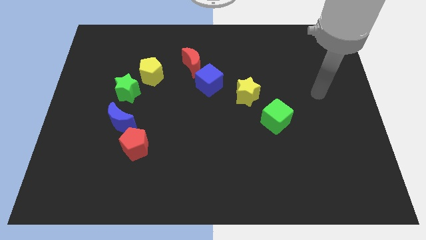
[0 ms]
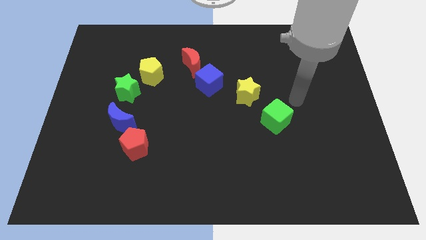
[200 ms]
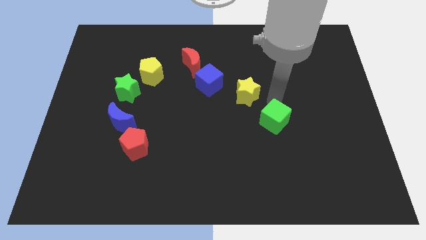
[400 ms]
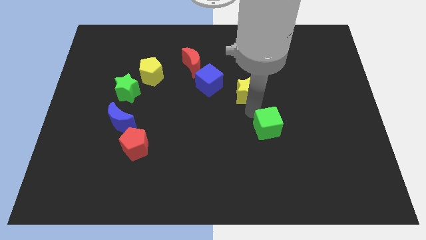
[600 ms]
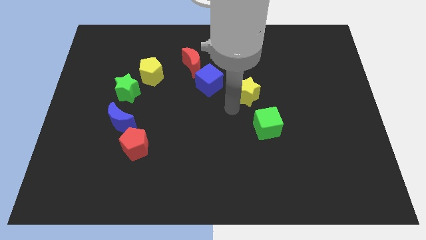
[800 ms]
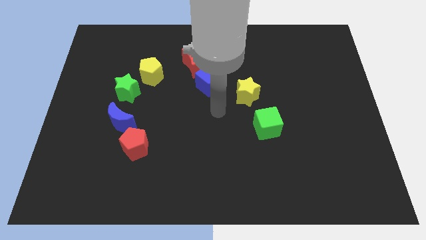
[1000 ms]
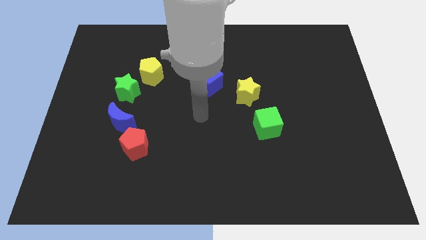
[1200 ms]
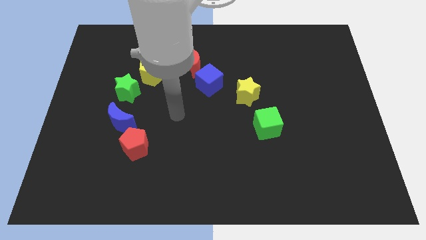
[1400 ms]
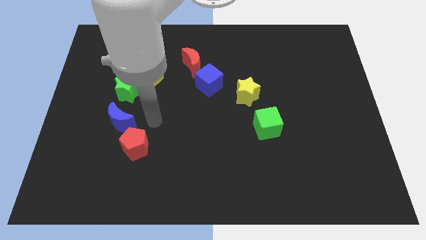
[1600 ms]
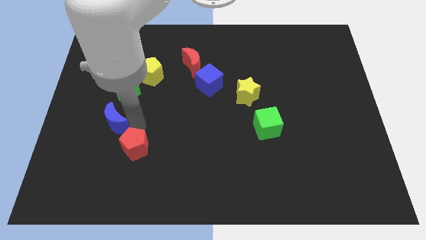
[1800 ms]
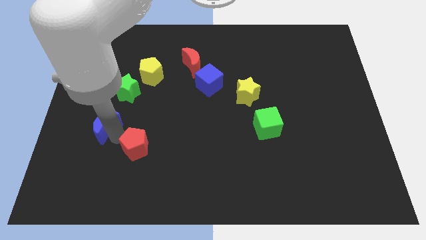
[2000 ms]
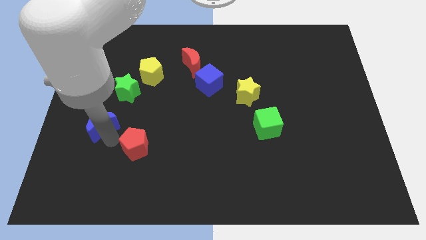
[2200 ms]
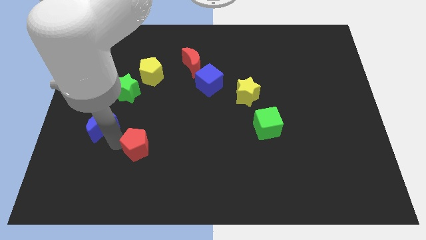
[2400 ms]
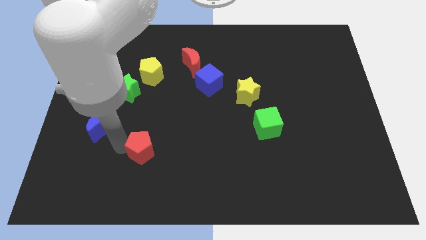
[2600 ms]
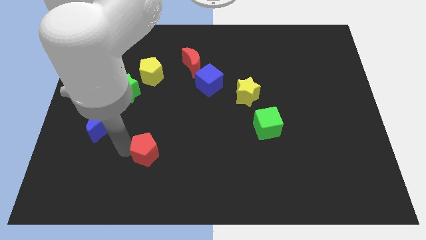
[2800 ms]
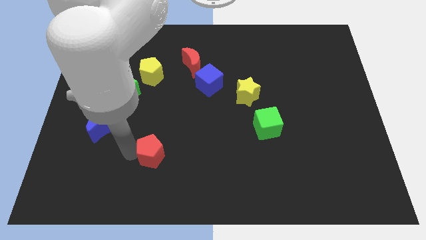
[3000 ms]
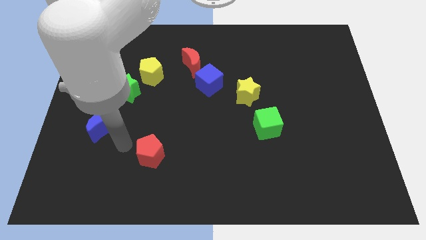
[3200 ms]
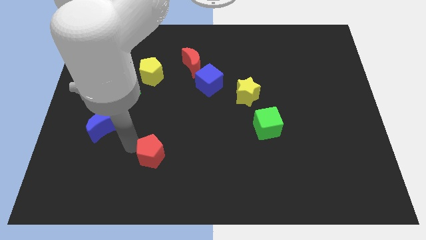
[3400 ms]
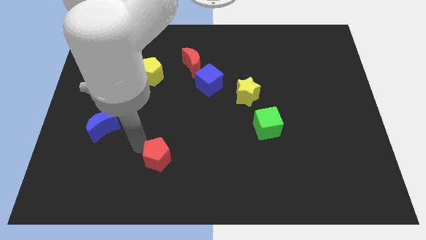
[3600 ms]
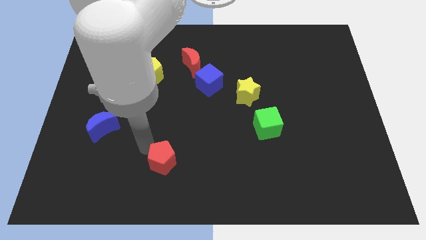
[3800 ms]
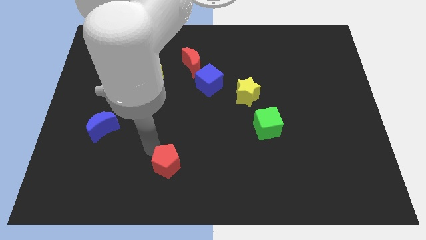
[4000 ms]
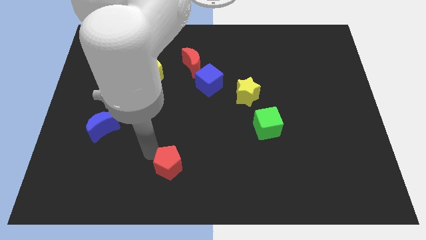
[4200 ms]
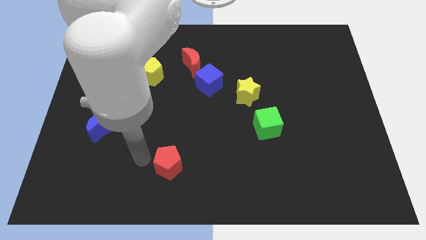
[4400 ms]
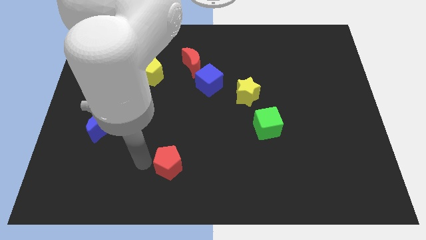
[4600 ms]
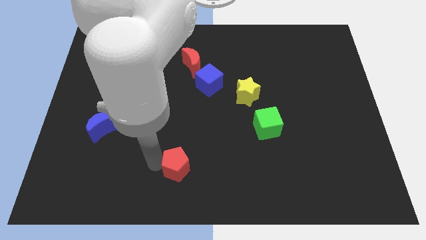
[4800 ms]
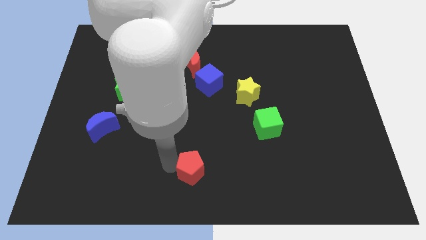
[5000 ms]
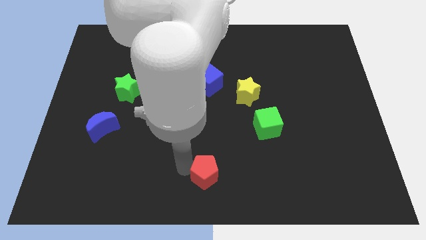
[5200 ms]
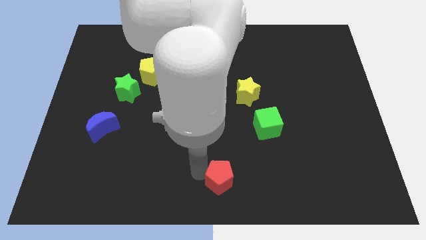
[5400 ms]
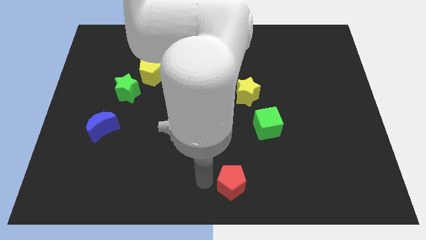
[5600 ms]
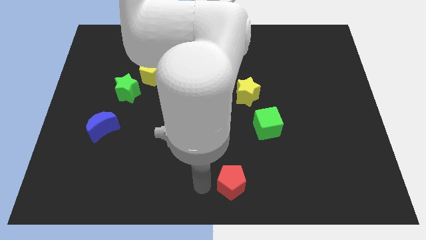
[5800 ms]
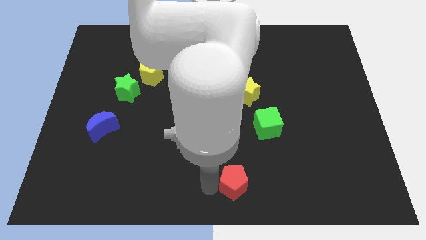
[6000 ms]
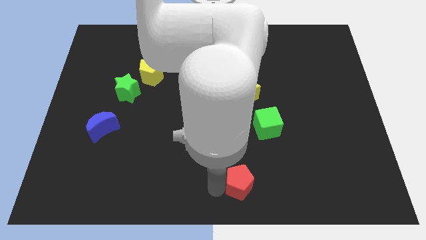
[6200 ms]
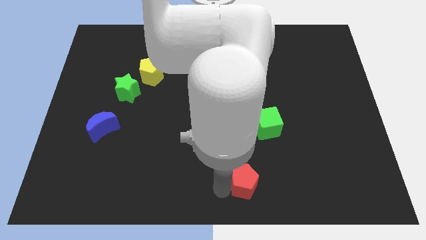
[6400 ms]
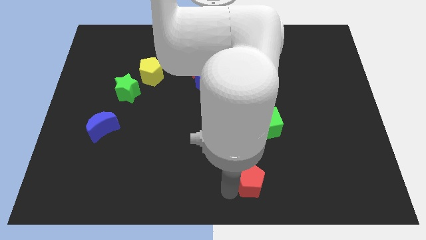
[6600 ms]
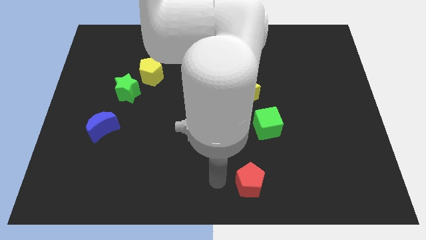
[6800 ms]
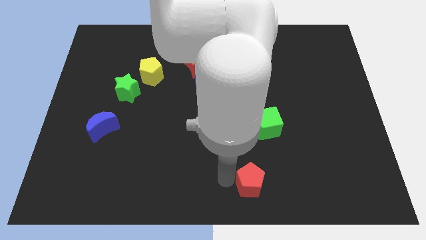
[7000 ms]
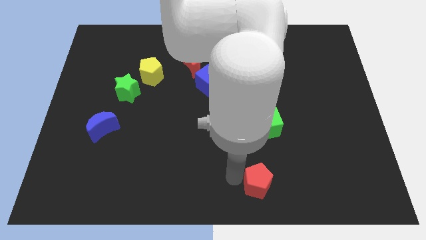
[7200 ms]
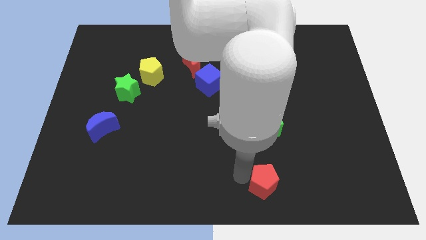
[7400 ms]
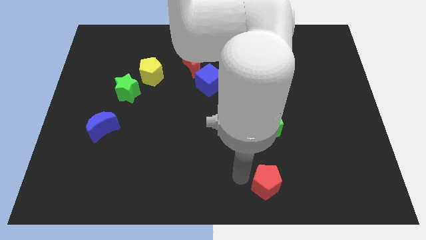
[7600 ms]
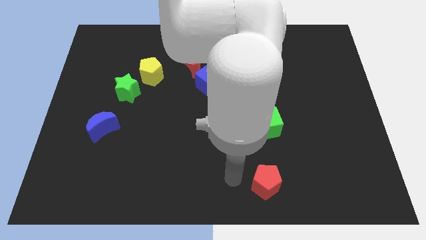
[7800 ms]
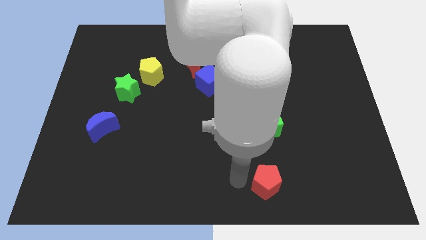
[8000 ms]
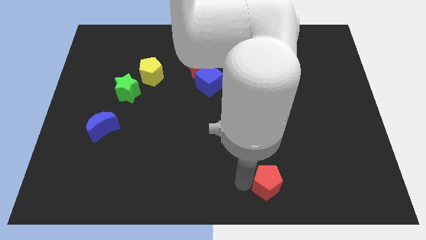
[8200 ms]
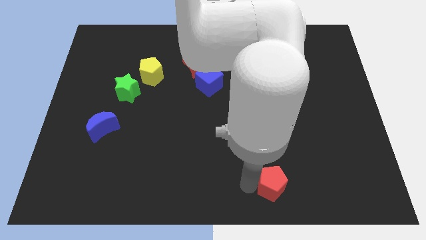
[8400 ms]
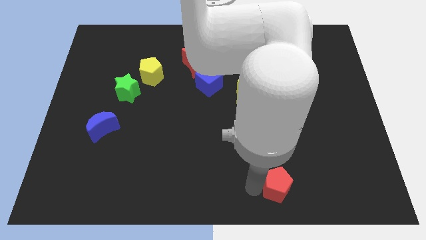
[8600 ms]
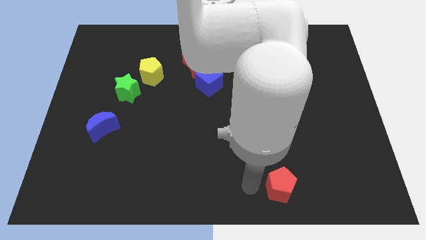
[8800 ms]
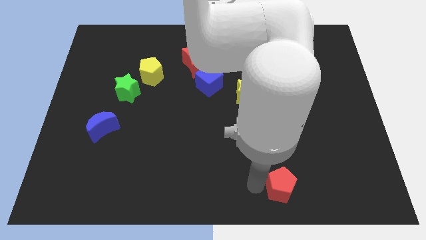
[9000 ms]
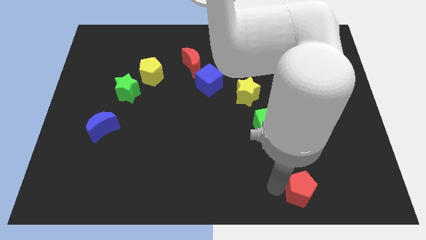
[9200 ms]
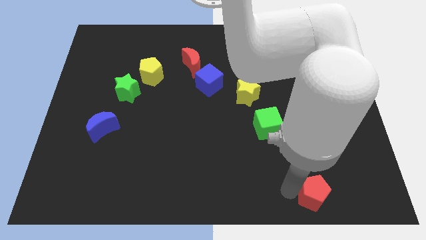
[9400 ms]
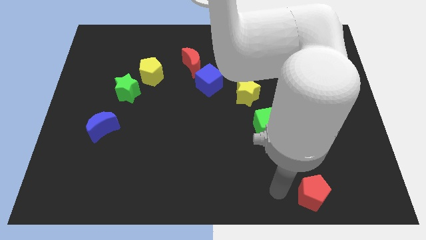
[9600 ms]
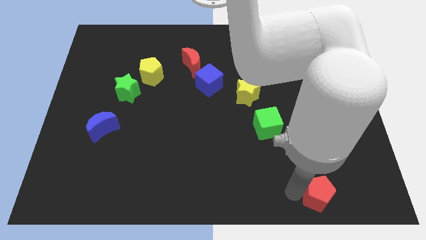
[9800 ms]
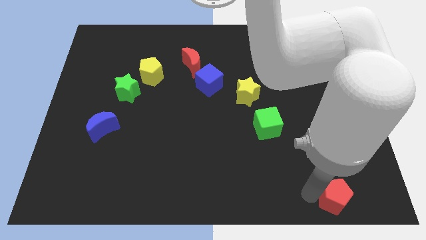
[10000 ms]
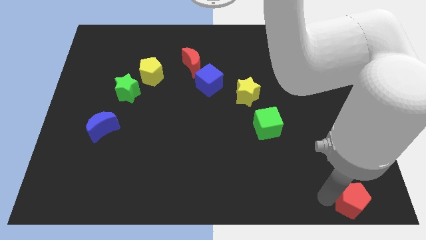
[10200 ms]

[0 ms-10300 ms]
push the red pentagon to the bottom right of the board

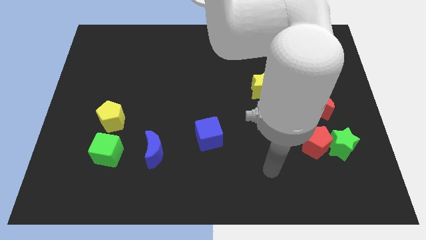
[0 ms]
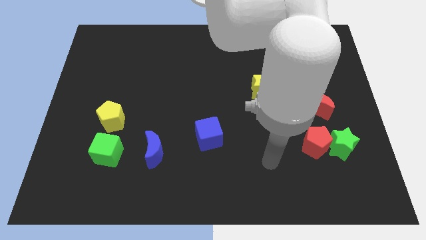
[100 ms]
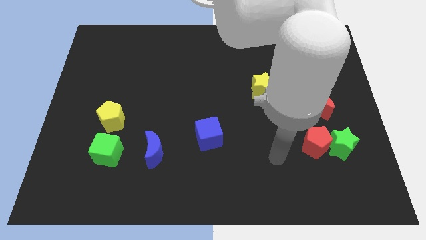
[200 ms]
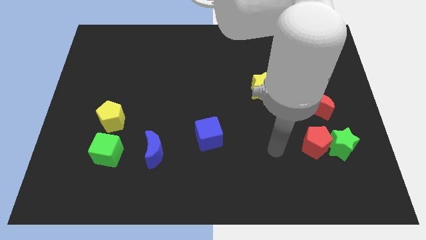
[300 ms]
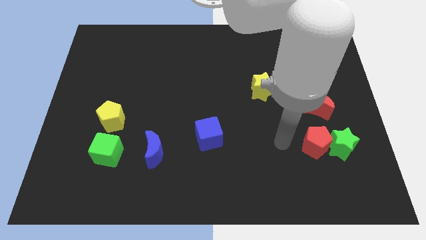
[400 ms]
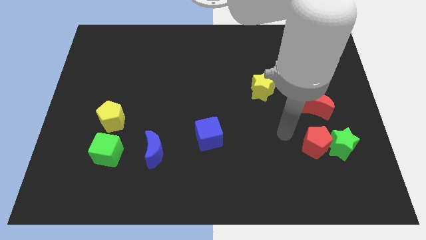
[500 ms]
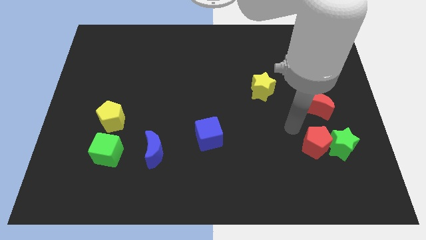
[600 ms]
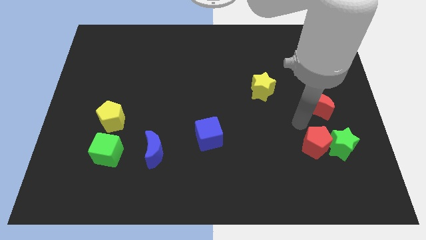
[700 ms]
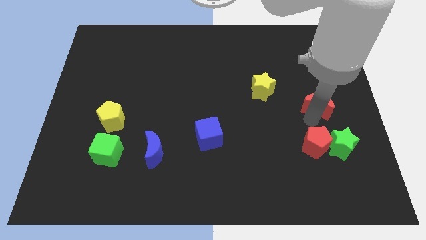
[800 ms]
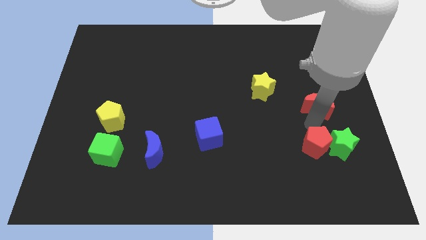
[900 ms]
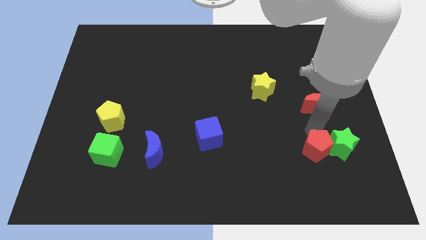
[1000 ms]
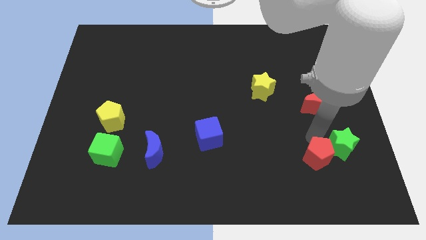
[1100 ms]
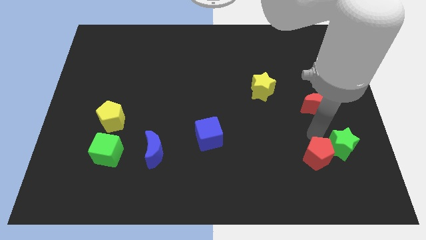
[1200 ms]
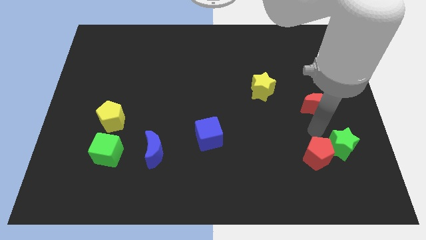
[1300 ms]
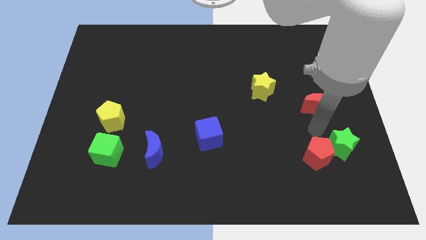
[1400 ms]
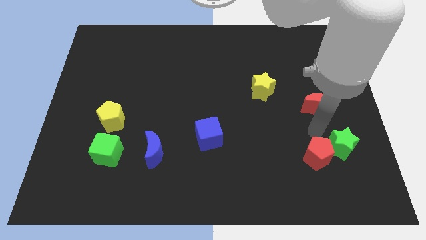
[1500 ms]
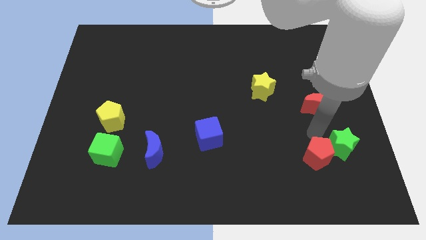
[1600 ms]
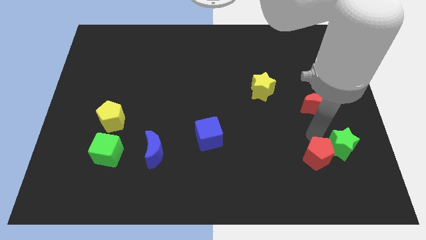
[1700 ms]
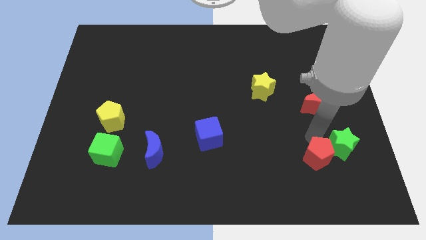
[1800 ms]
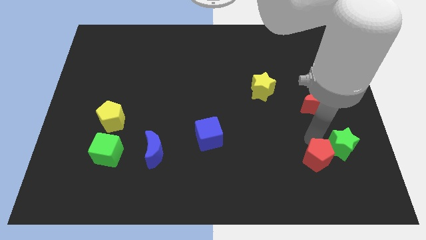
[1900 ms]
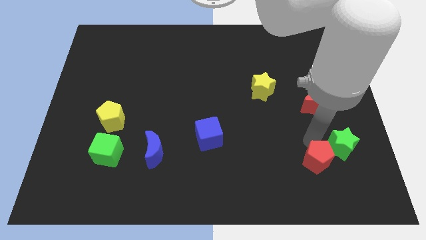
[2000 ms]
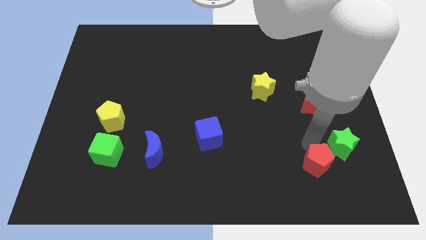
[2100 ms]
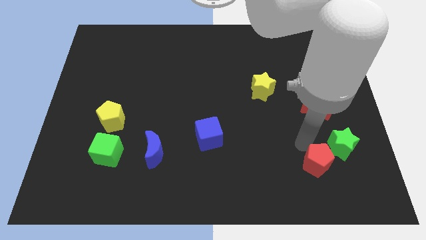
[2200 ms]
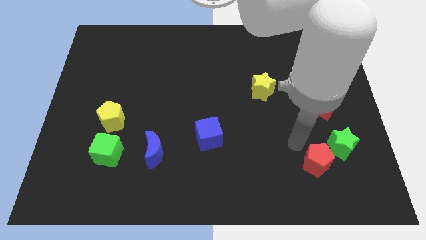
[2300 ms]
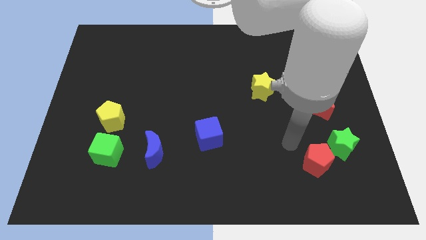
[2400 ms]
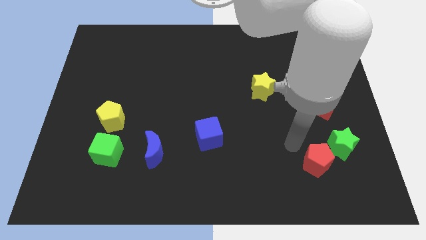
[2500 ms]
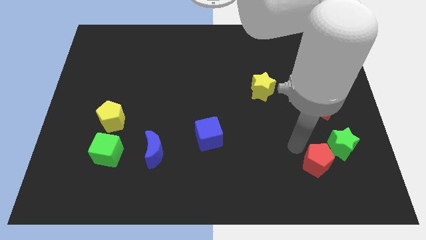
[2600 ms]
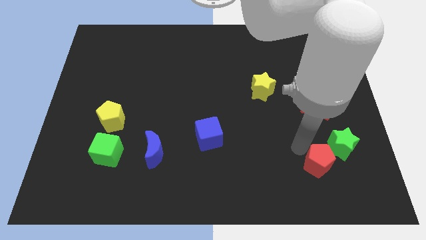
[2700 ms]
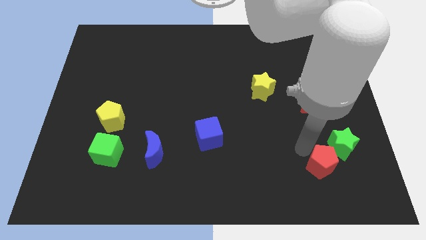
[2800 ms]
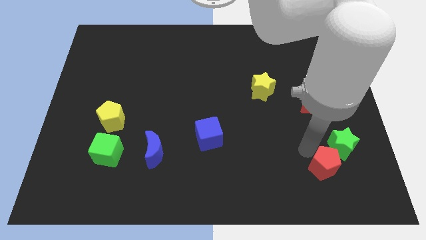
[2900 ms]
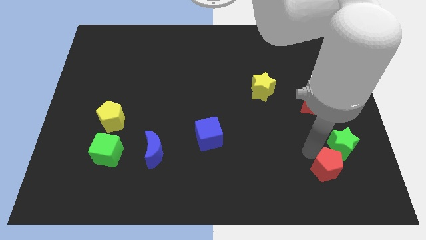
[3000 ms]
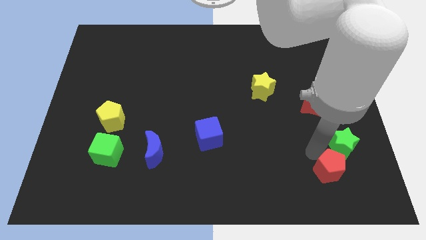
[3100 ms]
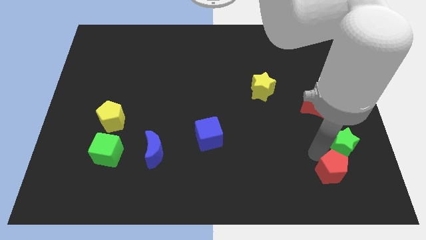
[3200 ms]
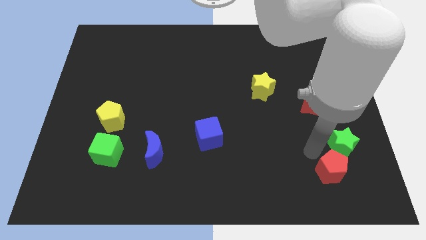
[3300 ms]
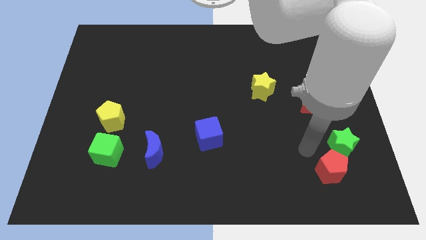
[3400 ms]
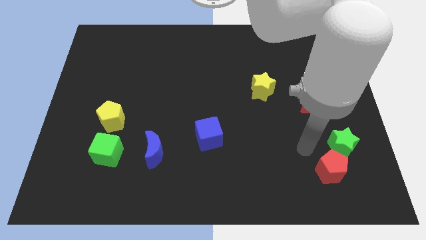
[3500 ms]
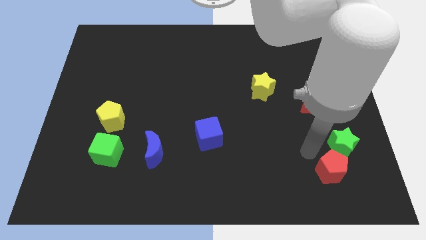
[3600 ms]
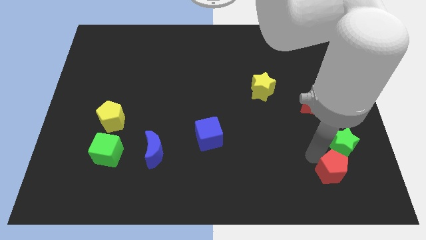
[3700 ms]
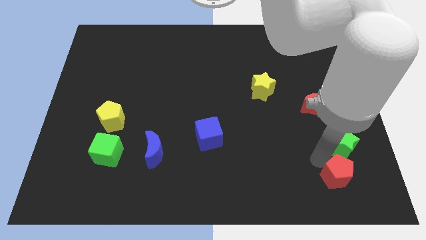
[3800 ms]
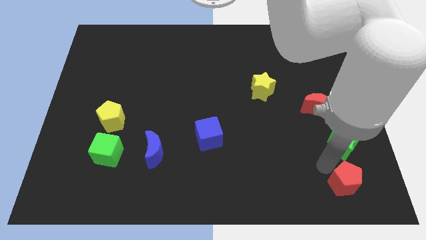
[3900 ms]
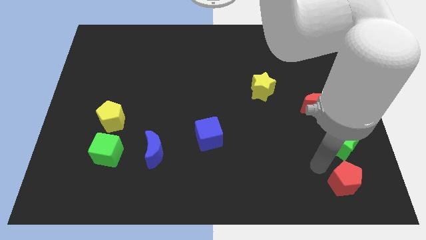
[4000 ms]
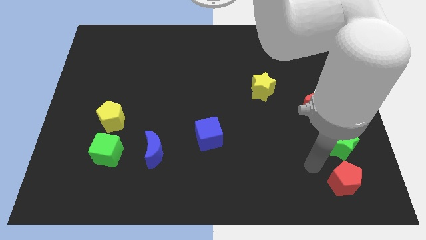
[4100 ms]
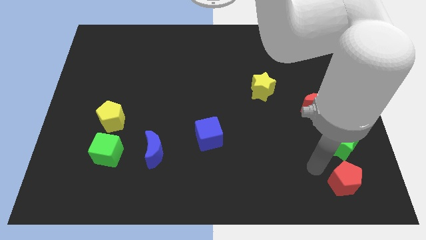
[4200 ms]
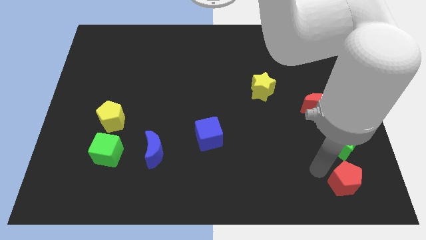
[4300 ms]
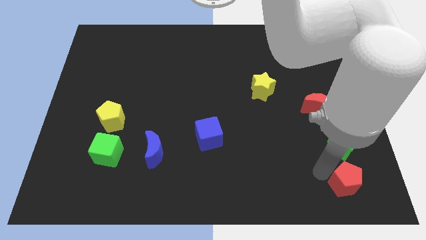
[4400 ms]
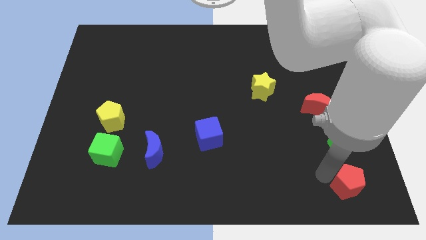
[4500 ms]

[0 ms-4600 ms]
slide the red pentagon to the bottom right
